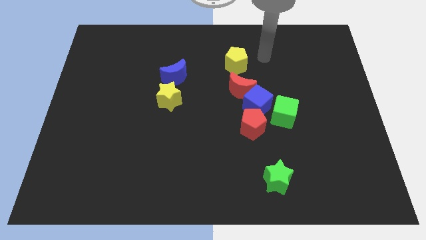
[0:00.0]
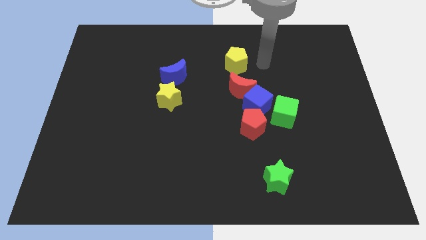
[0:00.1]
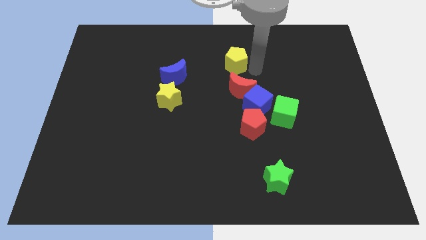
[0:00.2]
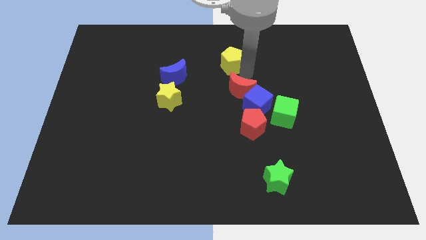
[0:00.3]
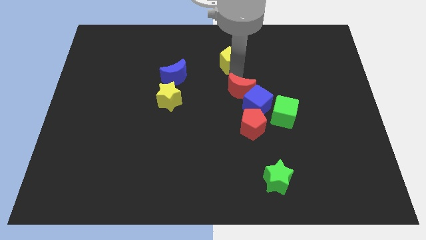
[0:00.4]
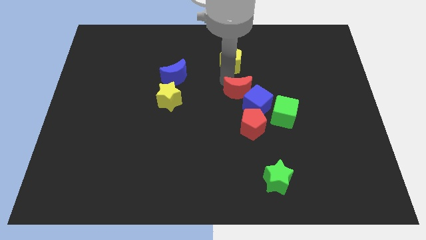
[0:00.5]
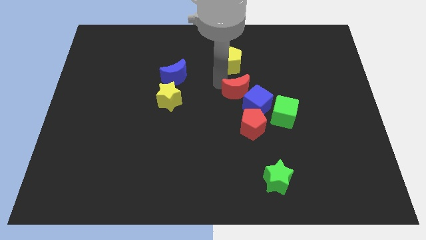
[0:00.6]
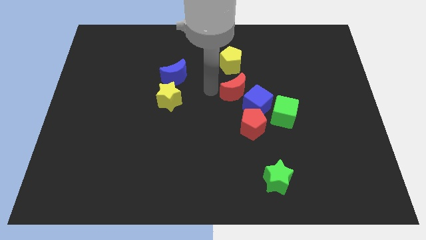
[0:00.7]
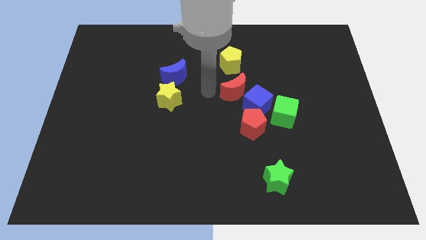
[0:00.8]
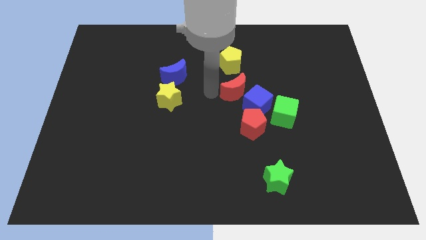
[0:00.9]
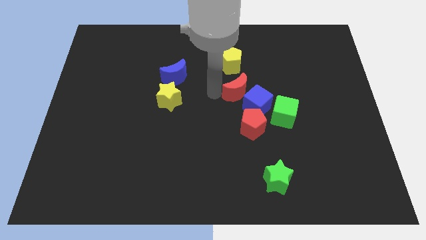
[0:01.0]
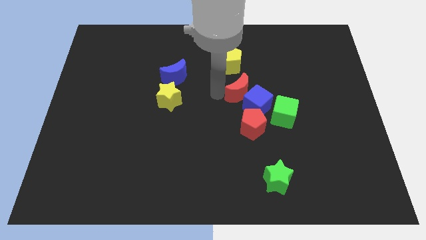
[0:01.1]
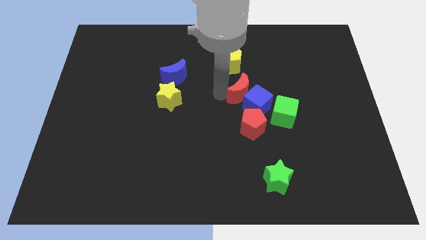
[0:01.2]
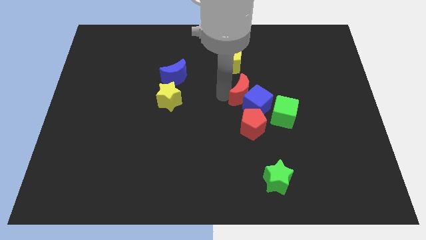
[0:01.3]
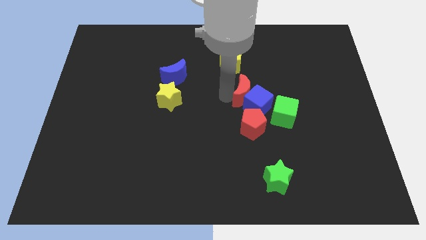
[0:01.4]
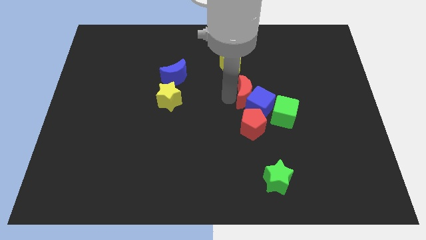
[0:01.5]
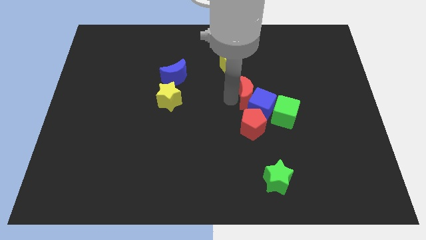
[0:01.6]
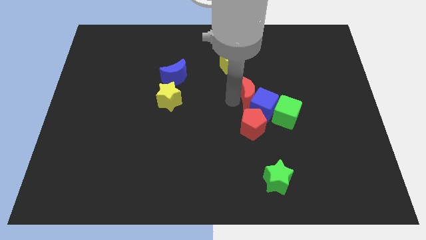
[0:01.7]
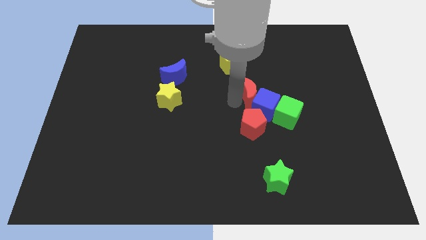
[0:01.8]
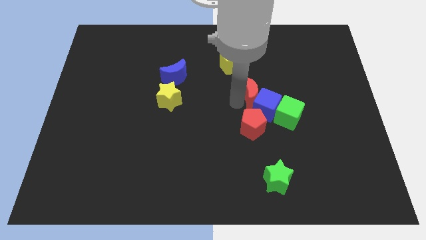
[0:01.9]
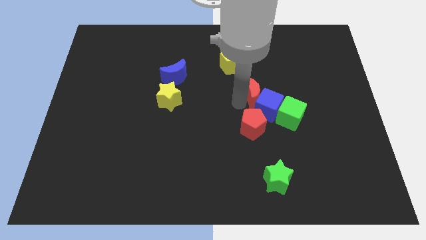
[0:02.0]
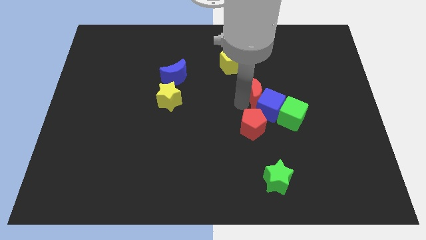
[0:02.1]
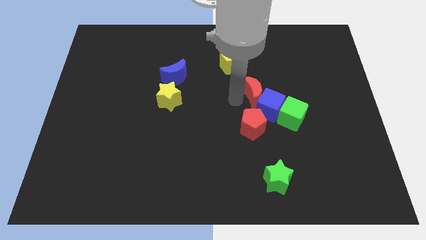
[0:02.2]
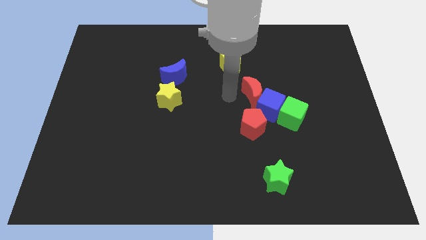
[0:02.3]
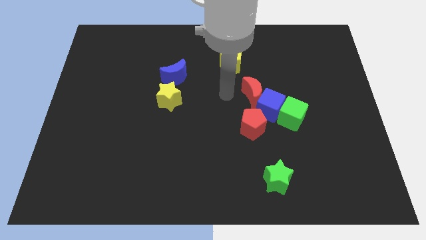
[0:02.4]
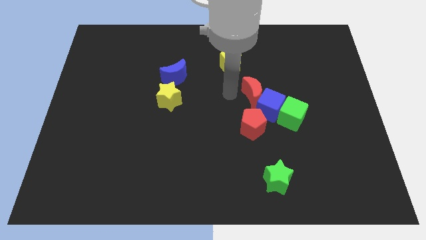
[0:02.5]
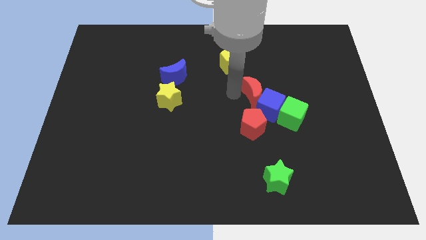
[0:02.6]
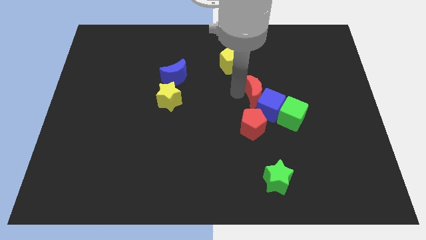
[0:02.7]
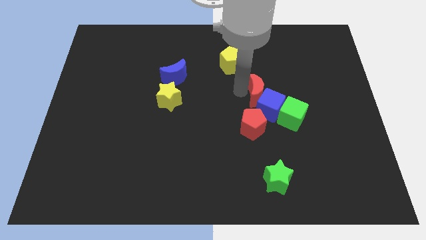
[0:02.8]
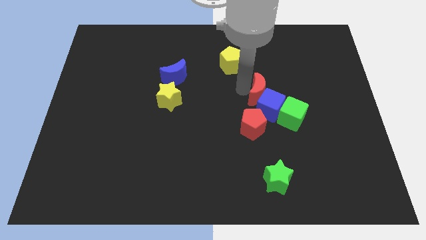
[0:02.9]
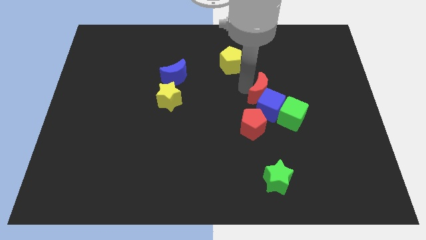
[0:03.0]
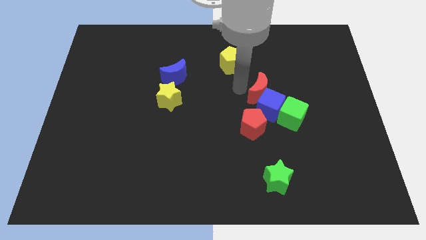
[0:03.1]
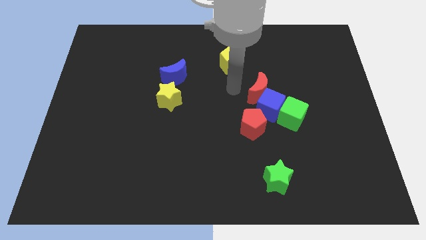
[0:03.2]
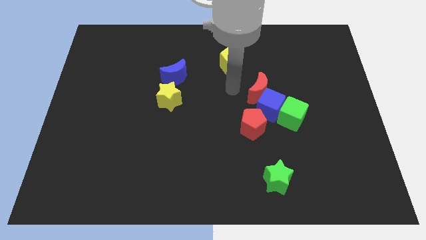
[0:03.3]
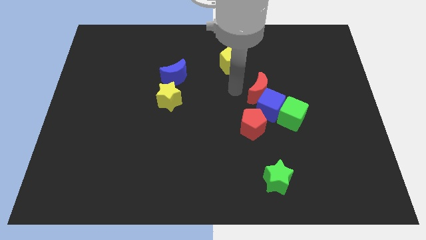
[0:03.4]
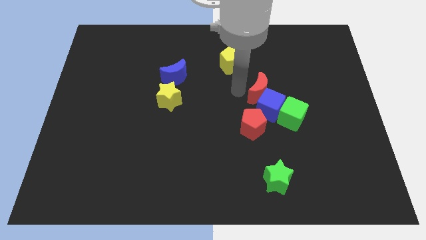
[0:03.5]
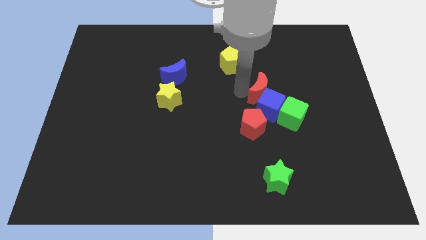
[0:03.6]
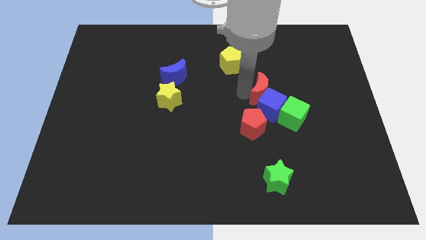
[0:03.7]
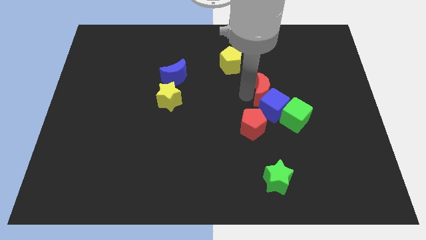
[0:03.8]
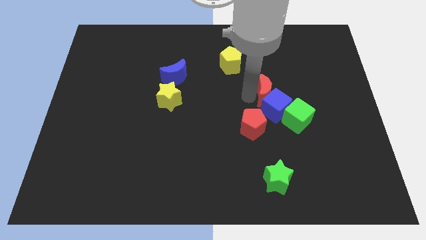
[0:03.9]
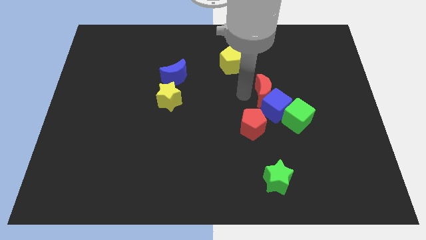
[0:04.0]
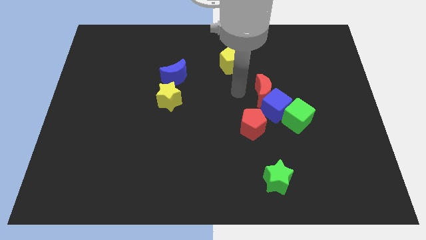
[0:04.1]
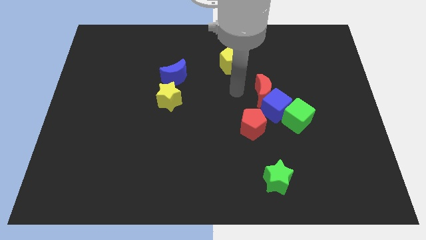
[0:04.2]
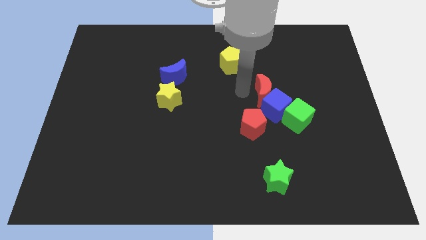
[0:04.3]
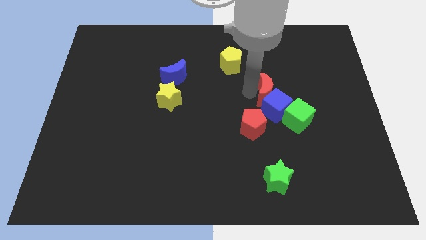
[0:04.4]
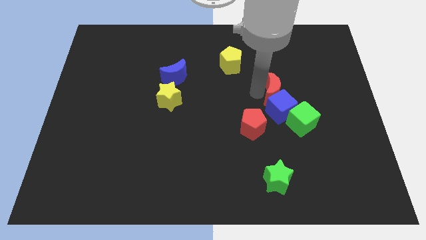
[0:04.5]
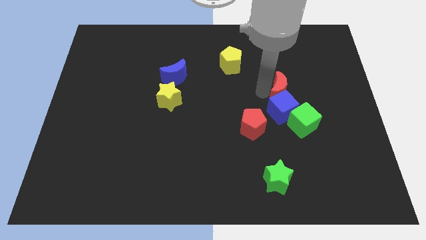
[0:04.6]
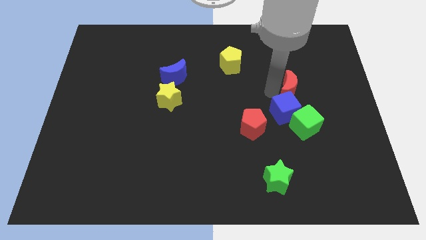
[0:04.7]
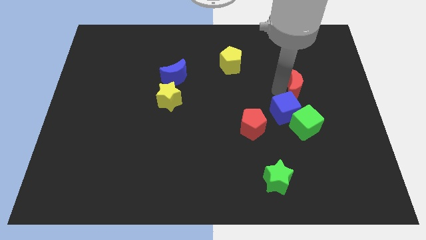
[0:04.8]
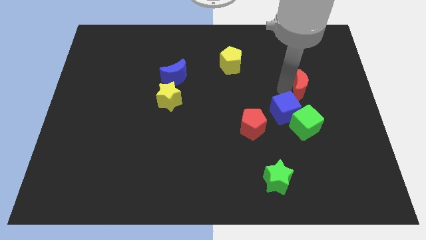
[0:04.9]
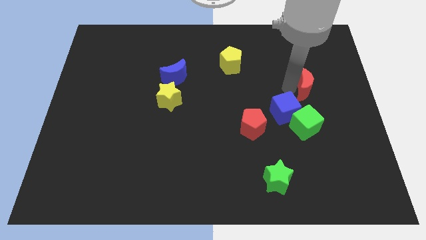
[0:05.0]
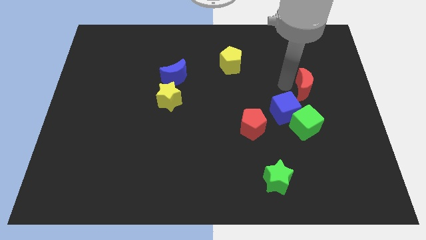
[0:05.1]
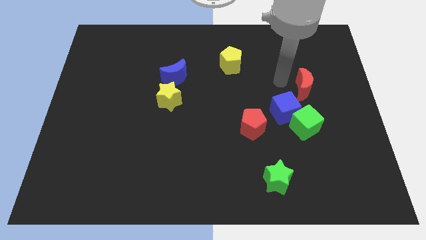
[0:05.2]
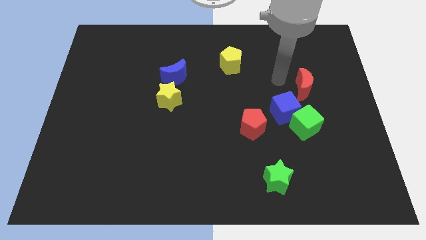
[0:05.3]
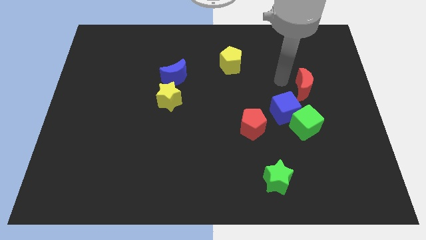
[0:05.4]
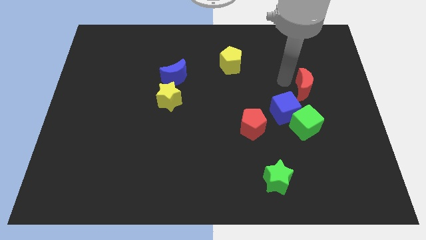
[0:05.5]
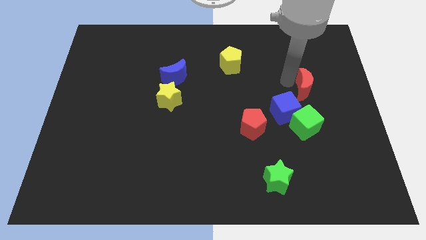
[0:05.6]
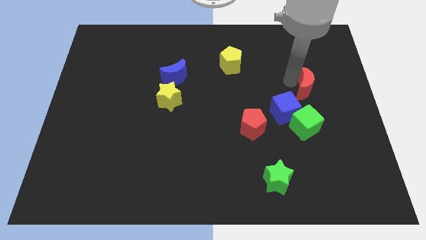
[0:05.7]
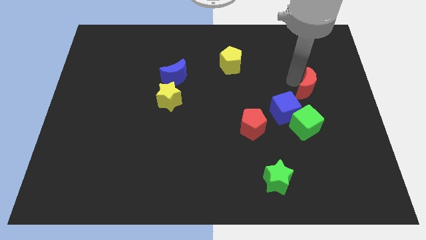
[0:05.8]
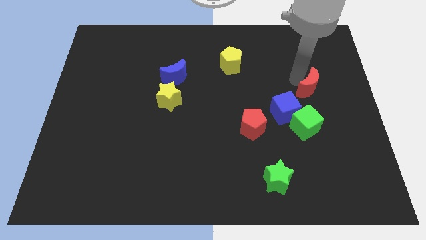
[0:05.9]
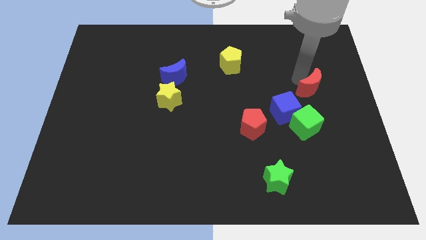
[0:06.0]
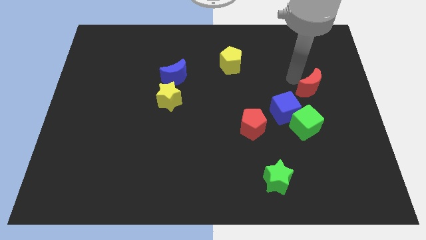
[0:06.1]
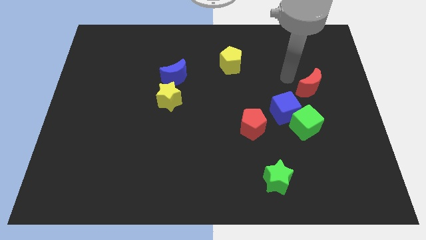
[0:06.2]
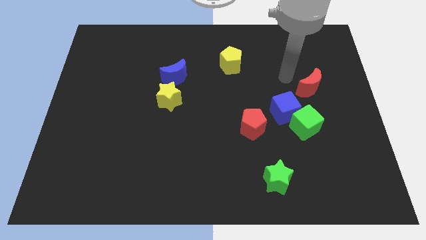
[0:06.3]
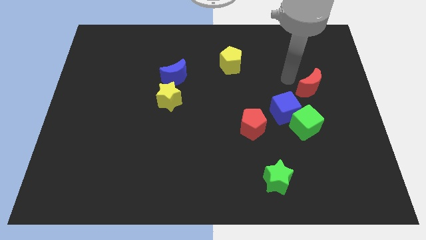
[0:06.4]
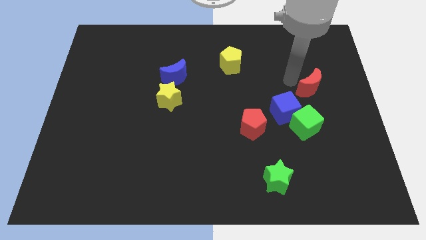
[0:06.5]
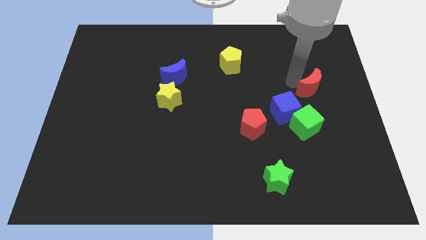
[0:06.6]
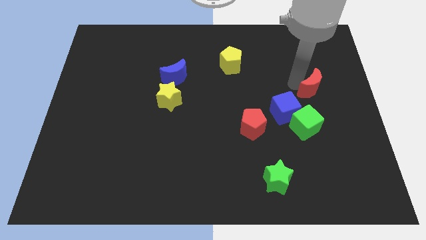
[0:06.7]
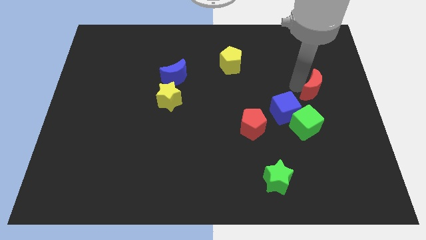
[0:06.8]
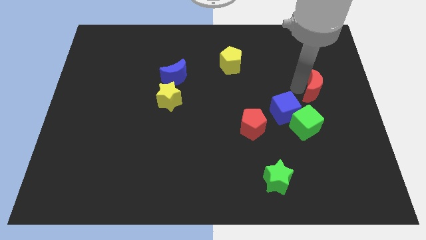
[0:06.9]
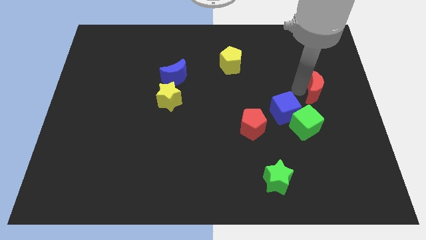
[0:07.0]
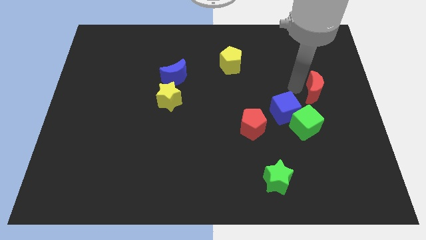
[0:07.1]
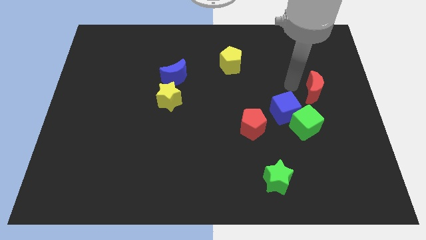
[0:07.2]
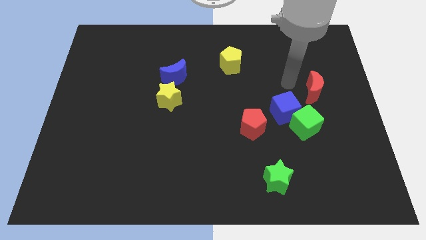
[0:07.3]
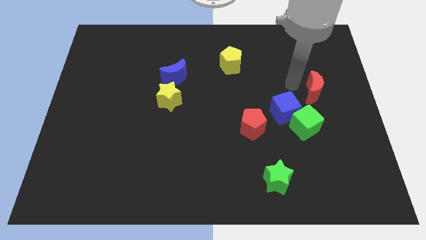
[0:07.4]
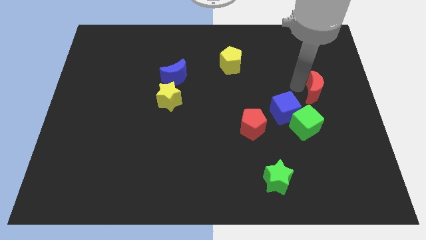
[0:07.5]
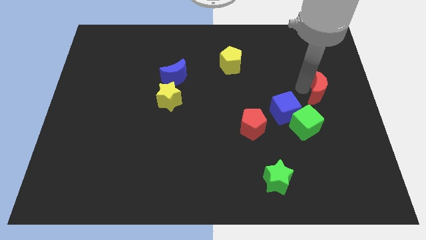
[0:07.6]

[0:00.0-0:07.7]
push the red moon to the right side
